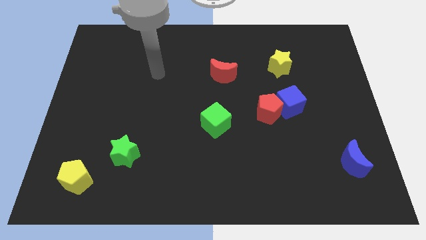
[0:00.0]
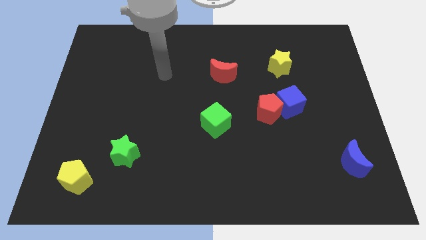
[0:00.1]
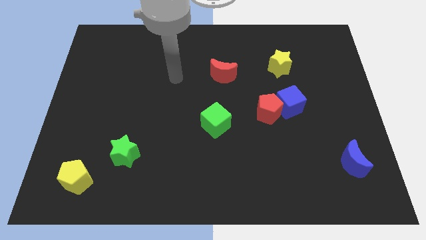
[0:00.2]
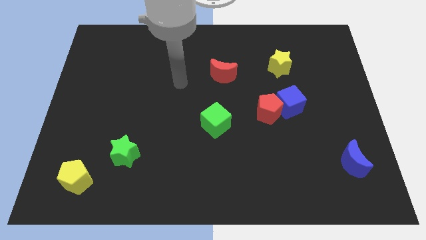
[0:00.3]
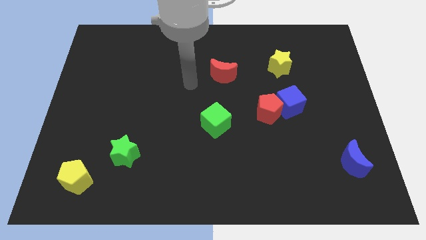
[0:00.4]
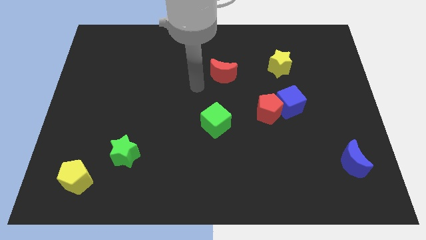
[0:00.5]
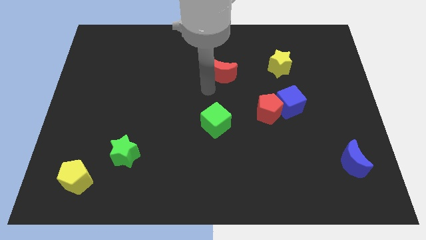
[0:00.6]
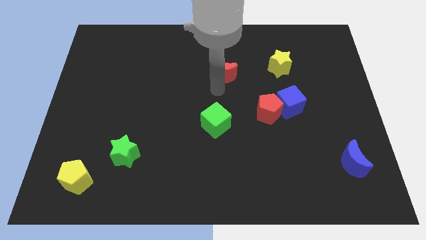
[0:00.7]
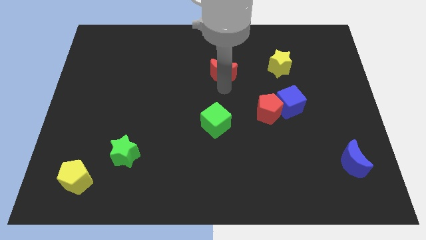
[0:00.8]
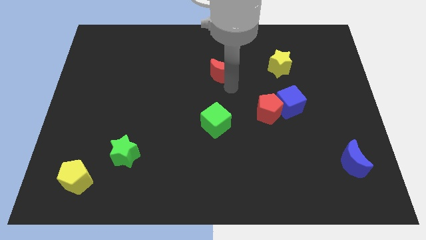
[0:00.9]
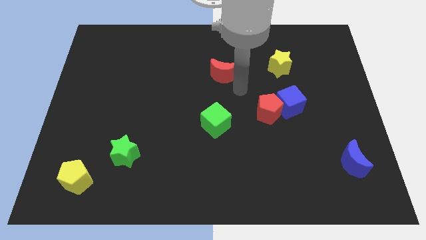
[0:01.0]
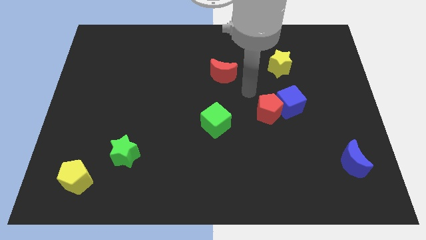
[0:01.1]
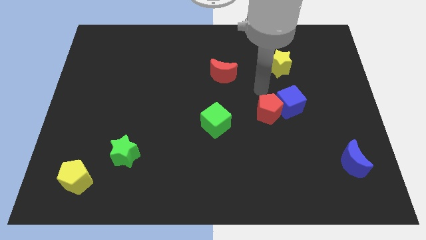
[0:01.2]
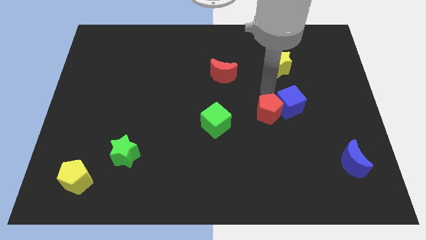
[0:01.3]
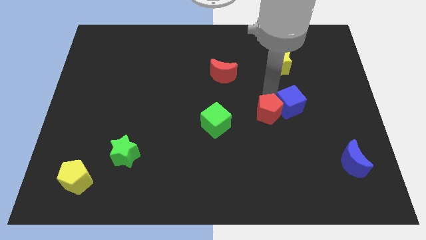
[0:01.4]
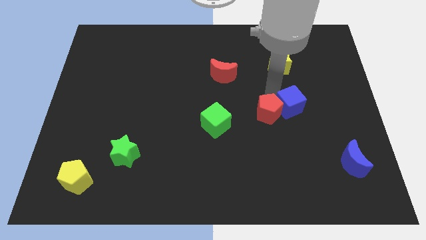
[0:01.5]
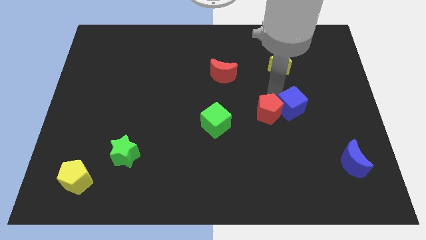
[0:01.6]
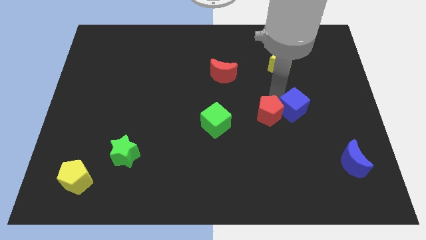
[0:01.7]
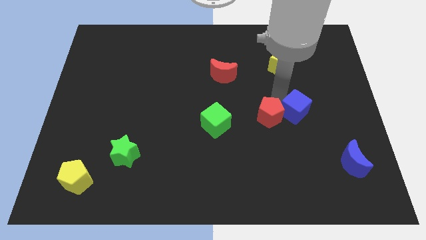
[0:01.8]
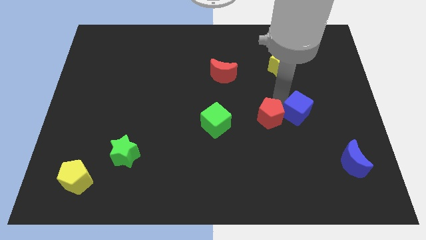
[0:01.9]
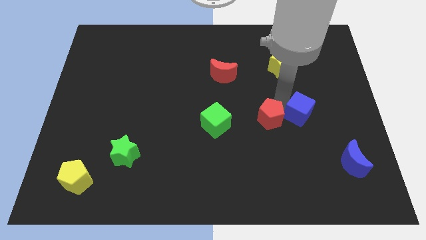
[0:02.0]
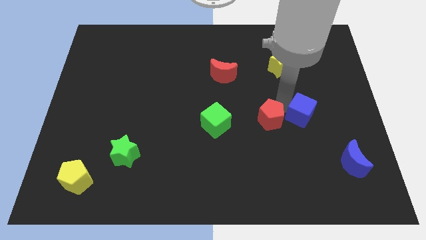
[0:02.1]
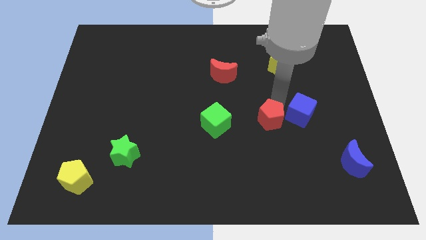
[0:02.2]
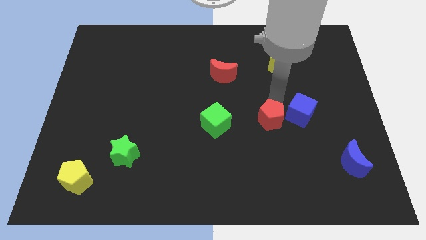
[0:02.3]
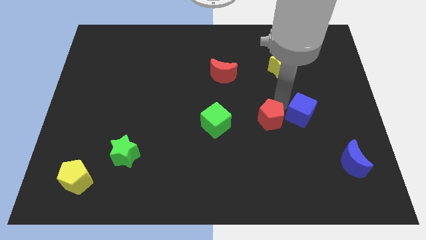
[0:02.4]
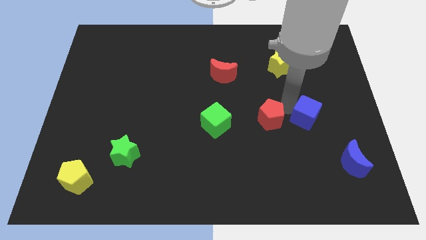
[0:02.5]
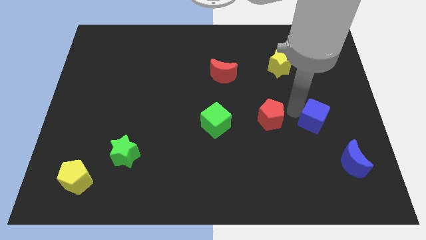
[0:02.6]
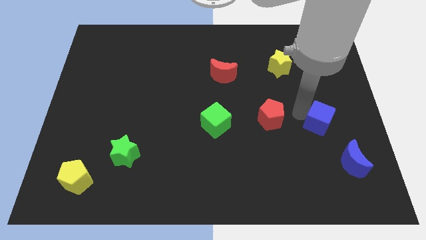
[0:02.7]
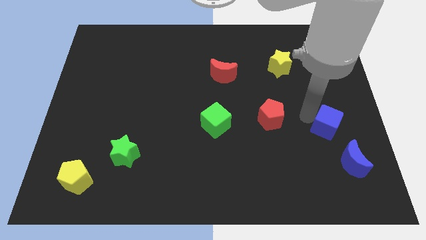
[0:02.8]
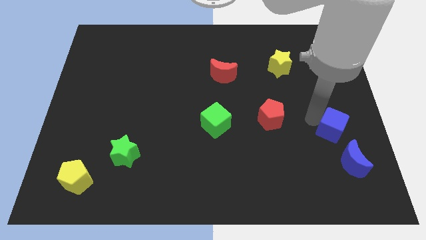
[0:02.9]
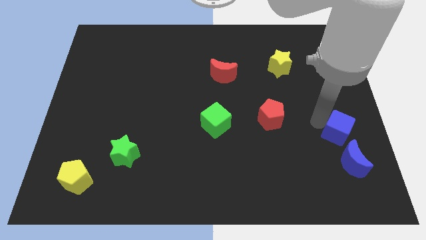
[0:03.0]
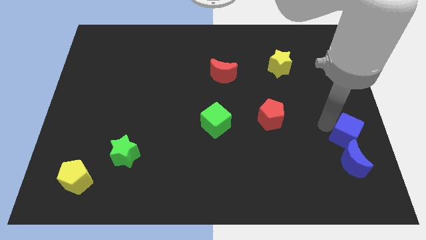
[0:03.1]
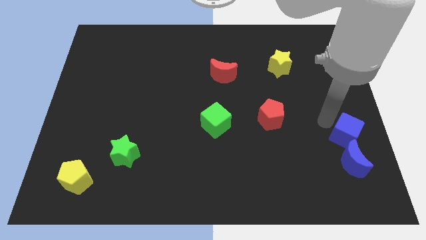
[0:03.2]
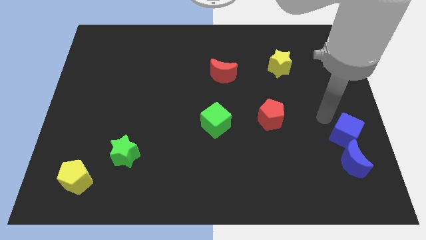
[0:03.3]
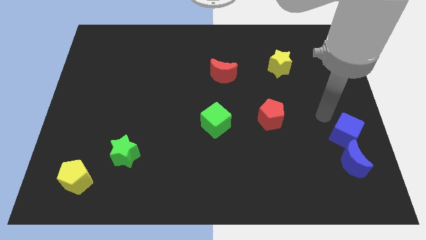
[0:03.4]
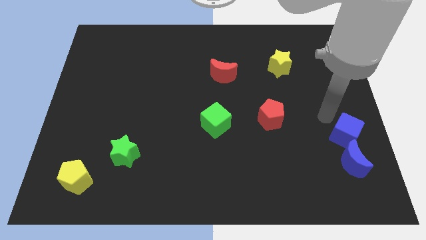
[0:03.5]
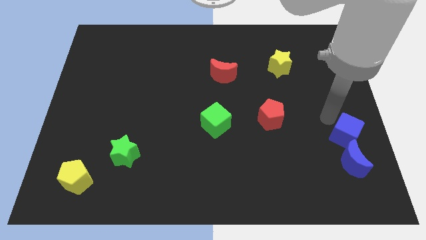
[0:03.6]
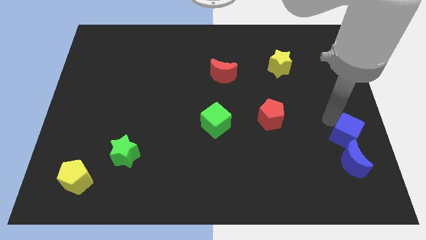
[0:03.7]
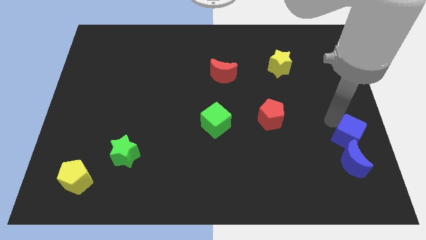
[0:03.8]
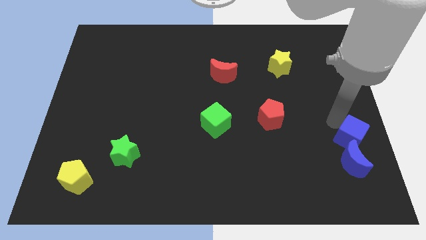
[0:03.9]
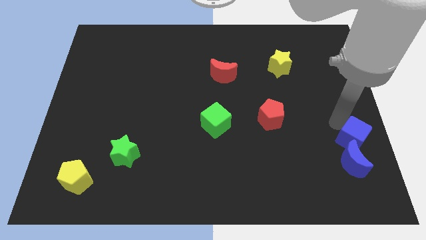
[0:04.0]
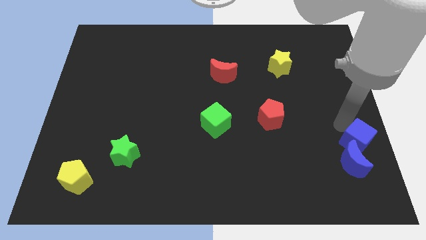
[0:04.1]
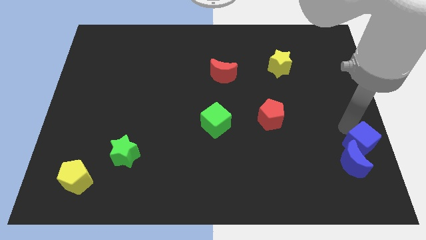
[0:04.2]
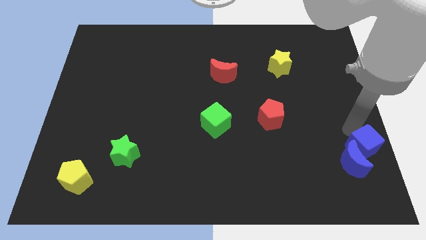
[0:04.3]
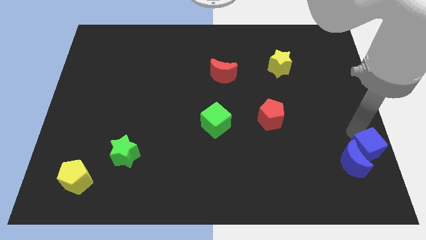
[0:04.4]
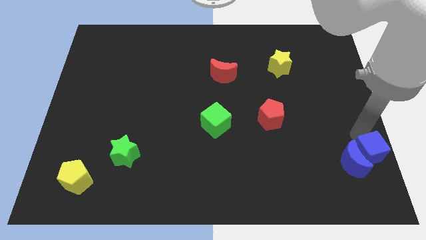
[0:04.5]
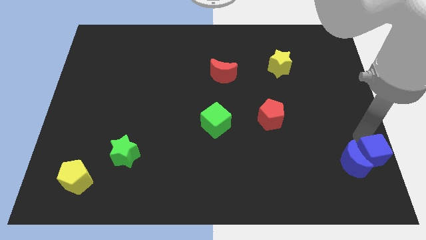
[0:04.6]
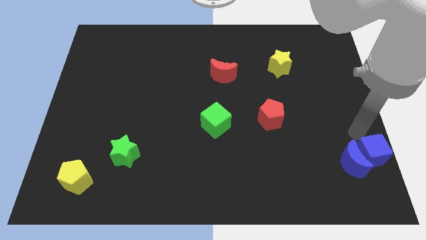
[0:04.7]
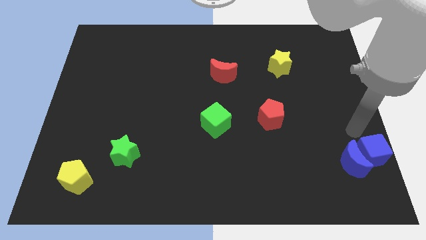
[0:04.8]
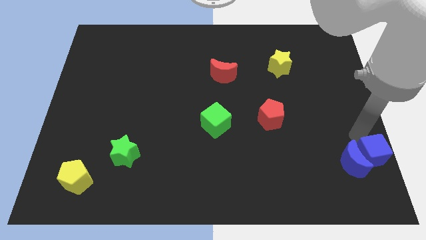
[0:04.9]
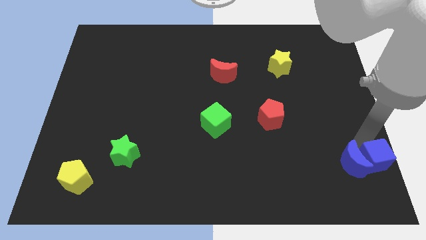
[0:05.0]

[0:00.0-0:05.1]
slide the blue cube to the lower right corner

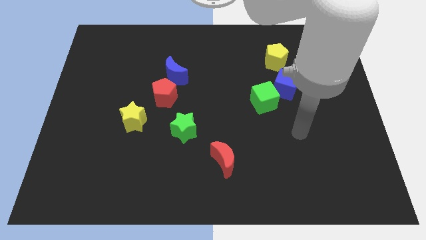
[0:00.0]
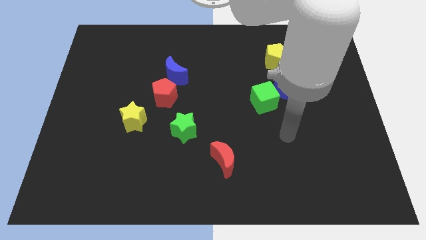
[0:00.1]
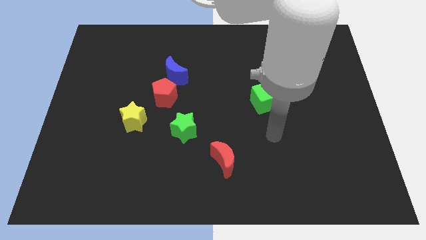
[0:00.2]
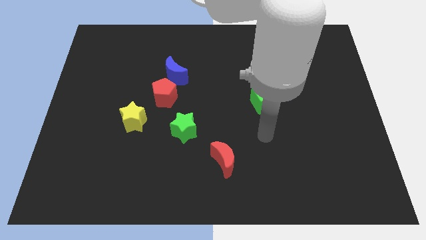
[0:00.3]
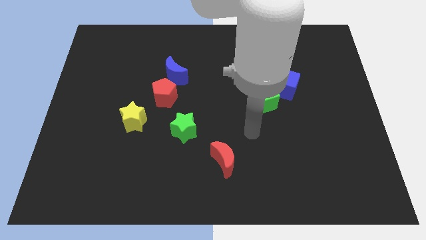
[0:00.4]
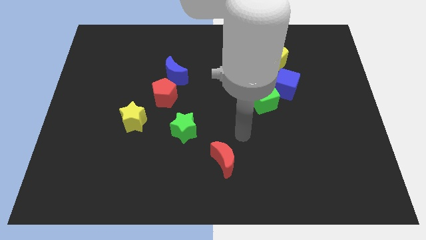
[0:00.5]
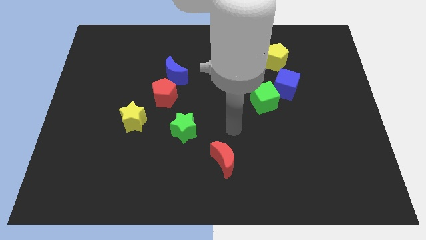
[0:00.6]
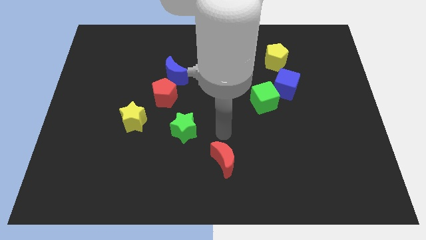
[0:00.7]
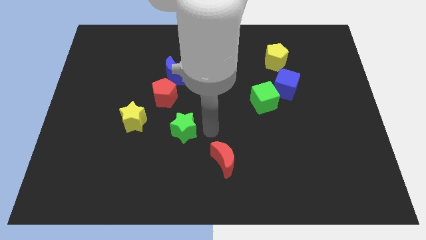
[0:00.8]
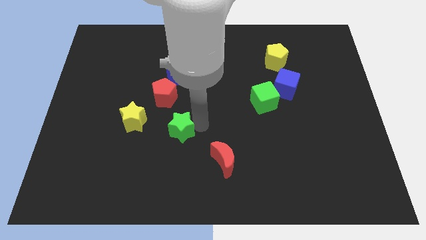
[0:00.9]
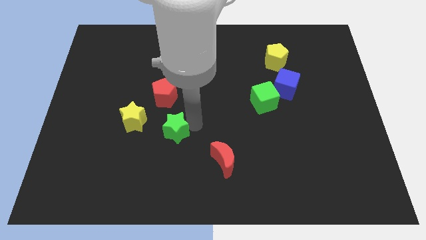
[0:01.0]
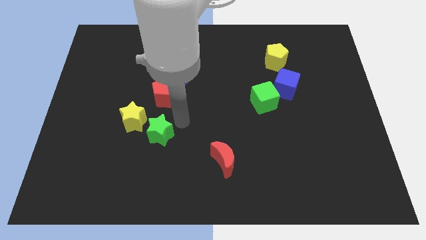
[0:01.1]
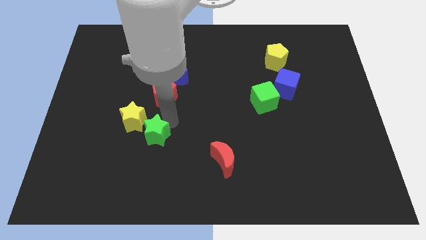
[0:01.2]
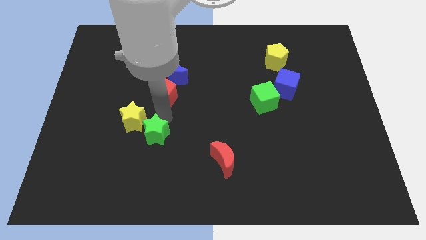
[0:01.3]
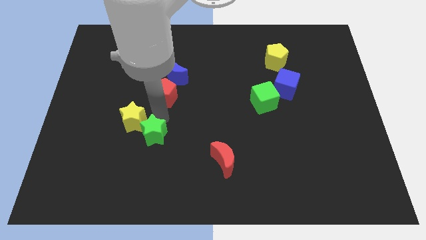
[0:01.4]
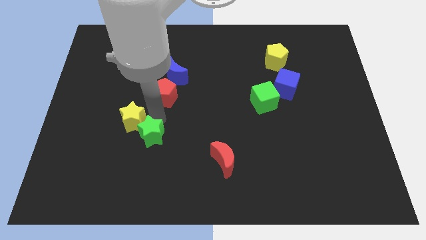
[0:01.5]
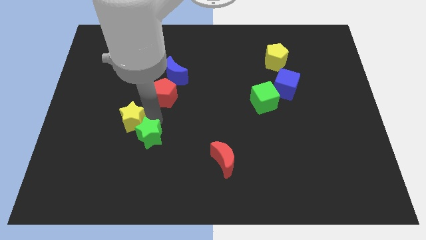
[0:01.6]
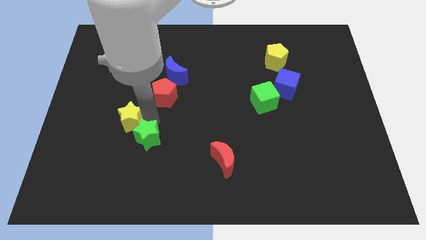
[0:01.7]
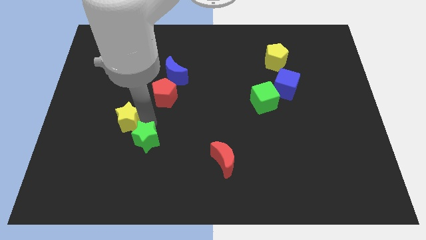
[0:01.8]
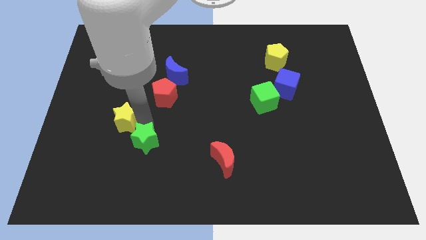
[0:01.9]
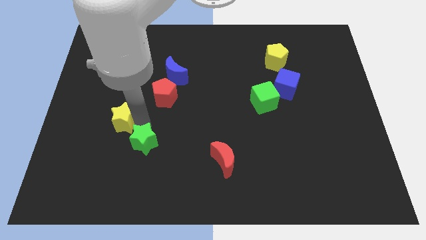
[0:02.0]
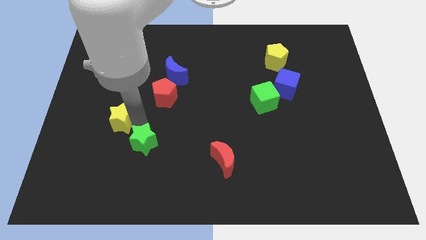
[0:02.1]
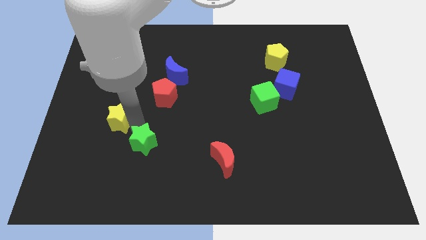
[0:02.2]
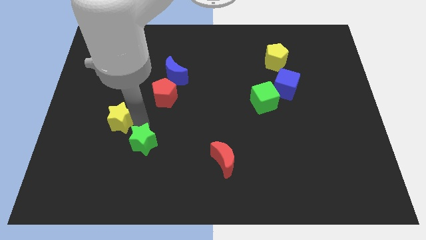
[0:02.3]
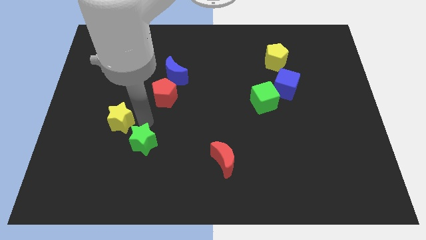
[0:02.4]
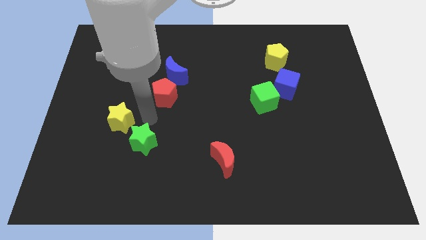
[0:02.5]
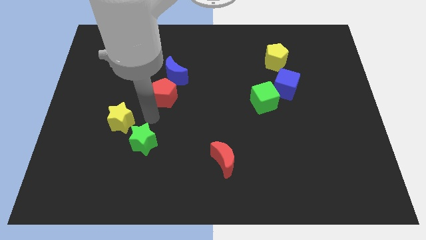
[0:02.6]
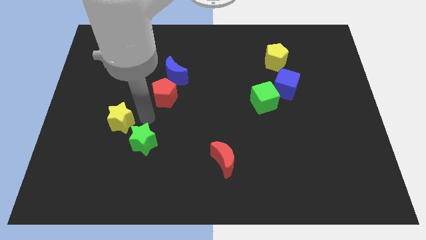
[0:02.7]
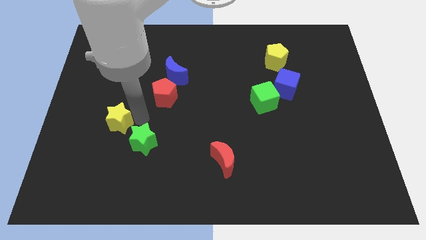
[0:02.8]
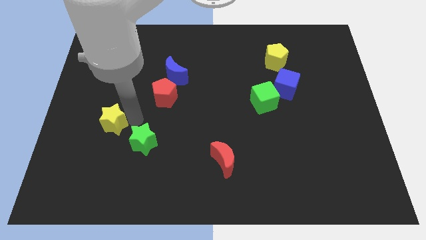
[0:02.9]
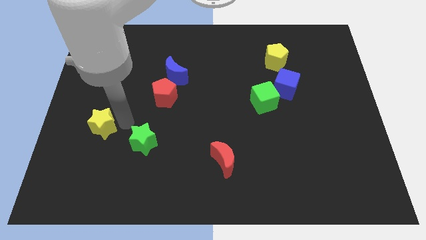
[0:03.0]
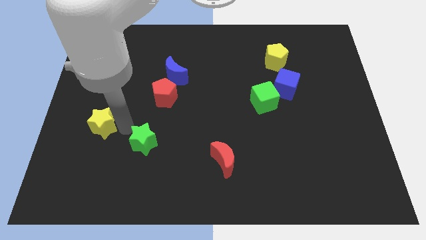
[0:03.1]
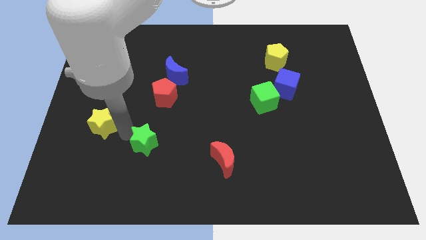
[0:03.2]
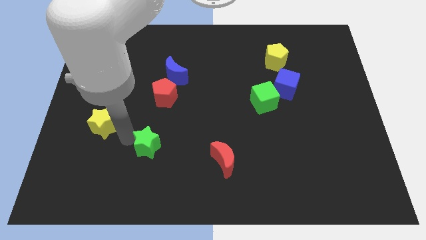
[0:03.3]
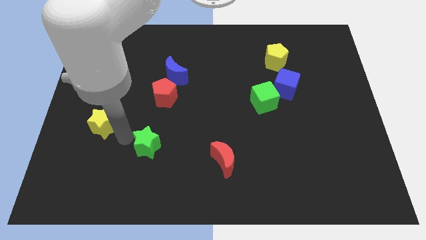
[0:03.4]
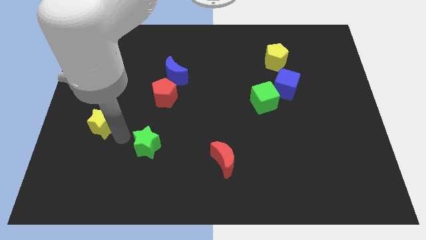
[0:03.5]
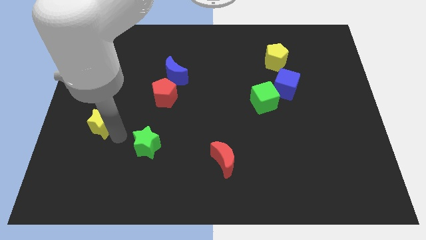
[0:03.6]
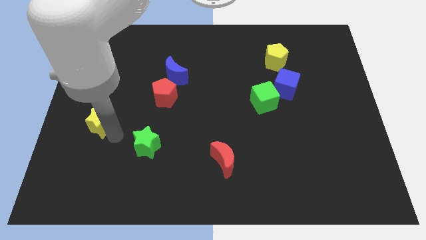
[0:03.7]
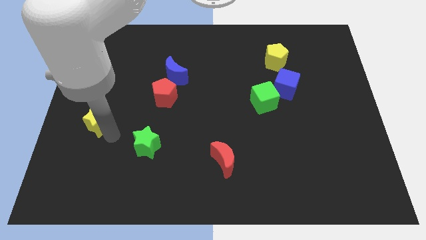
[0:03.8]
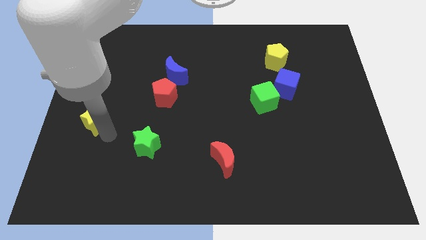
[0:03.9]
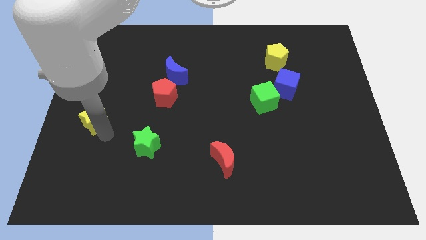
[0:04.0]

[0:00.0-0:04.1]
slide the yellow star to the left side
